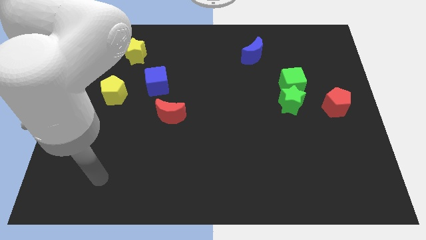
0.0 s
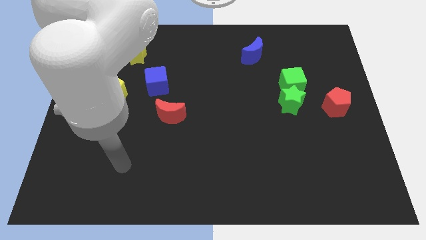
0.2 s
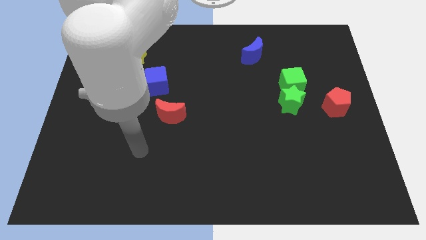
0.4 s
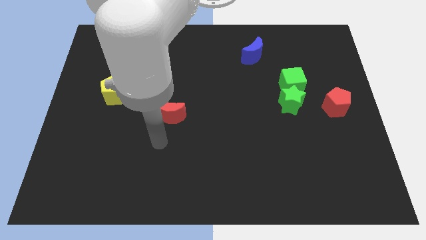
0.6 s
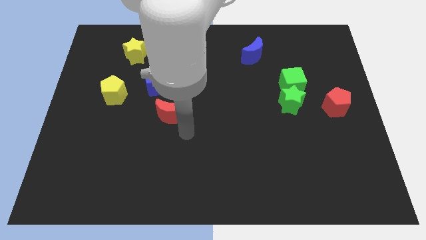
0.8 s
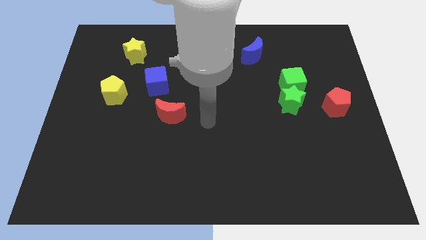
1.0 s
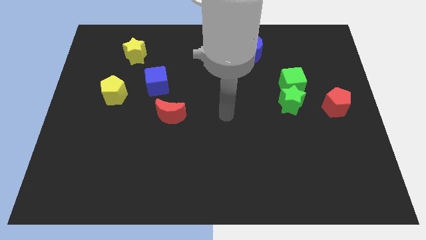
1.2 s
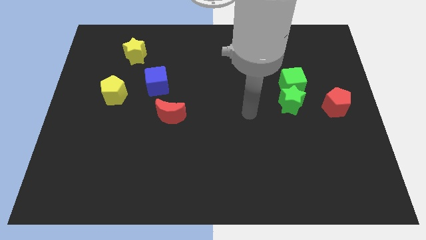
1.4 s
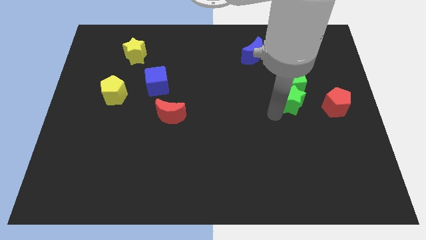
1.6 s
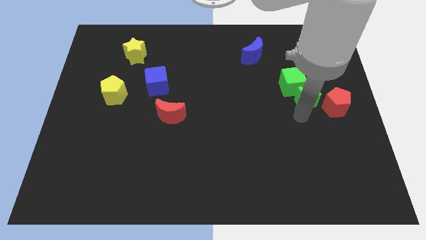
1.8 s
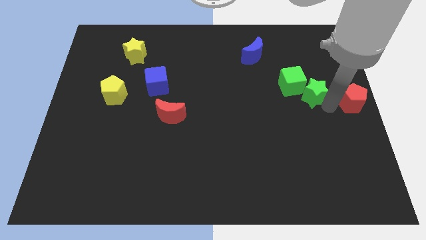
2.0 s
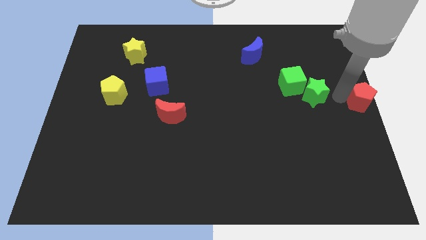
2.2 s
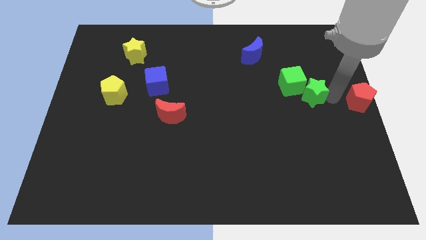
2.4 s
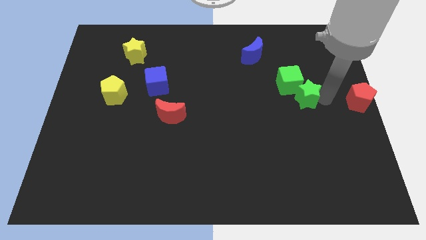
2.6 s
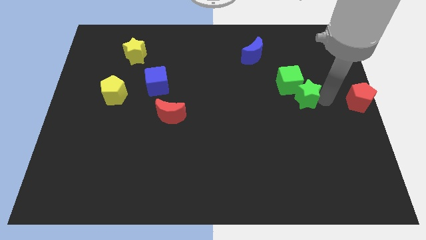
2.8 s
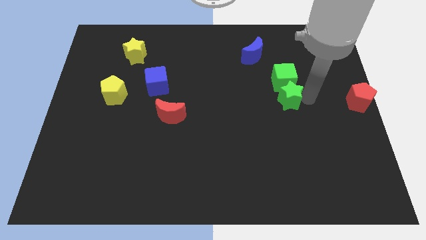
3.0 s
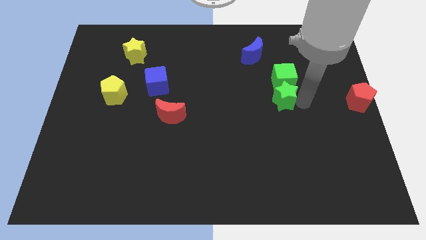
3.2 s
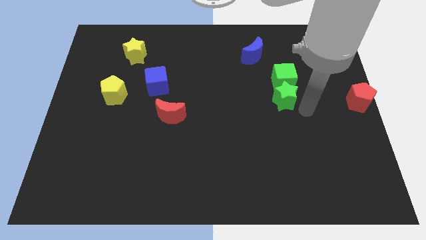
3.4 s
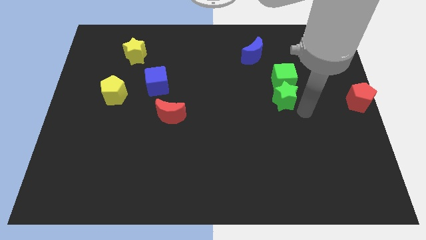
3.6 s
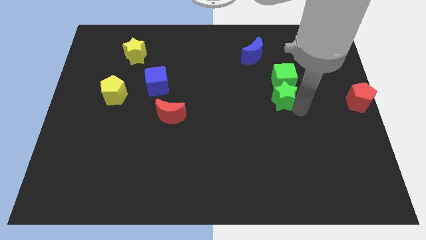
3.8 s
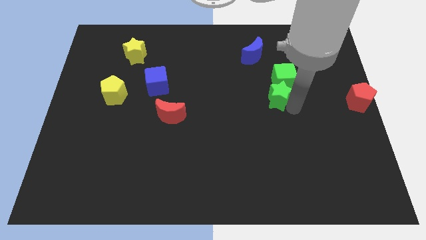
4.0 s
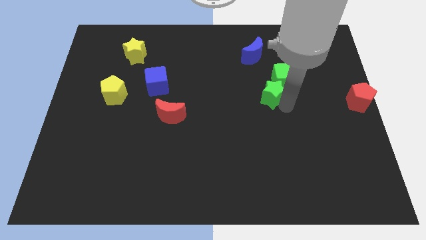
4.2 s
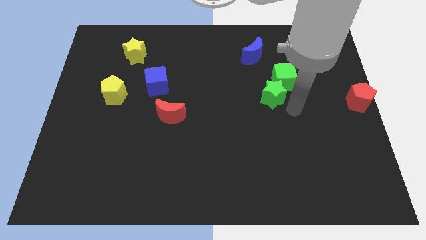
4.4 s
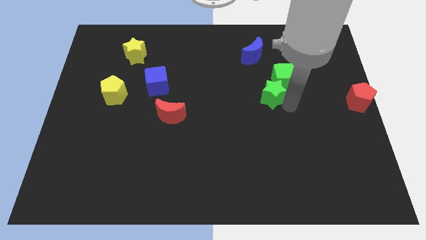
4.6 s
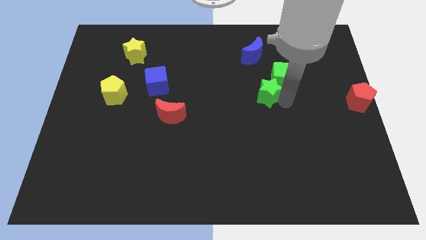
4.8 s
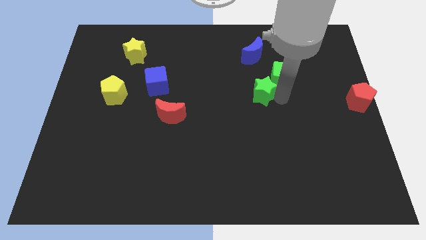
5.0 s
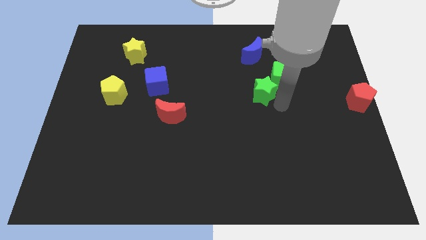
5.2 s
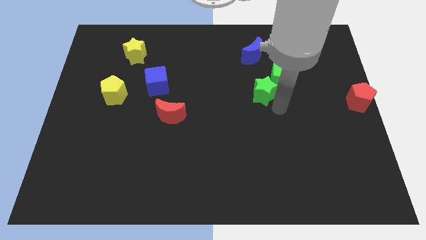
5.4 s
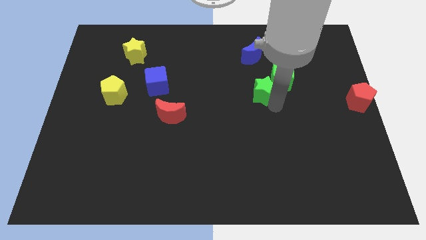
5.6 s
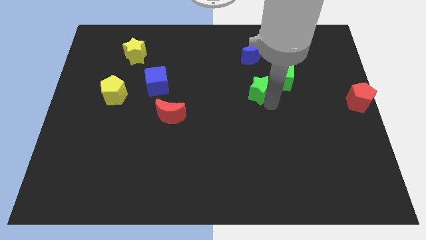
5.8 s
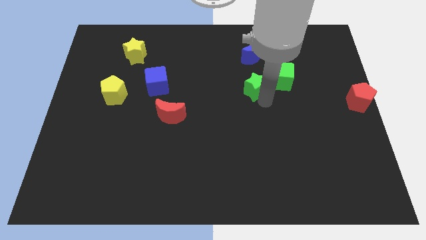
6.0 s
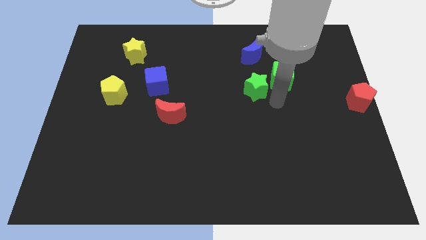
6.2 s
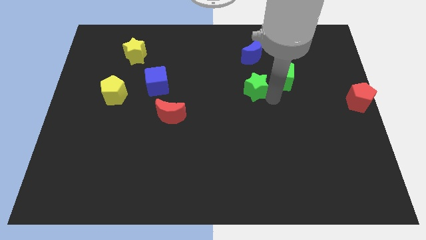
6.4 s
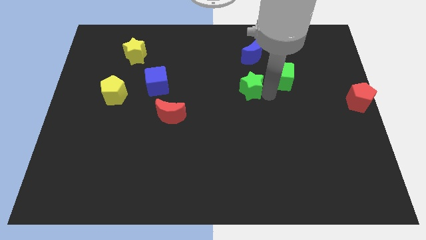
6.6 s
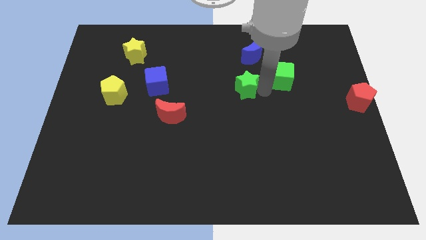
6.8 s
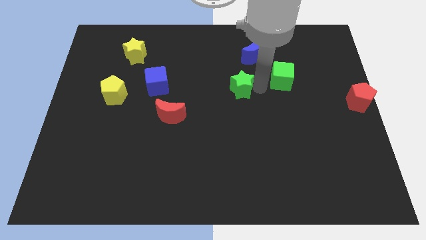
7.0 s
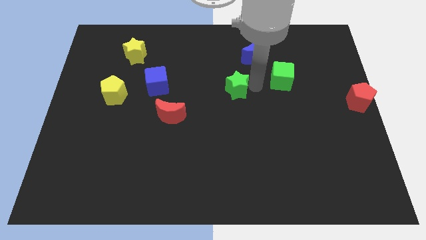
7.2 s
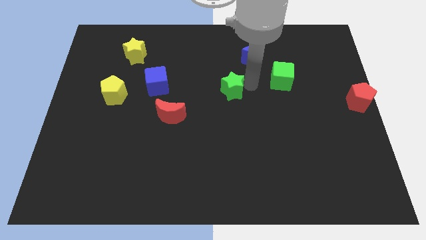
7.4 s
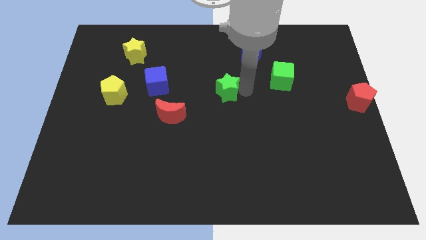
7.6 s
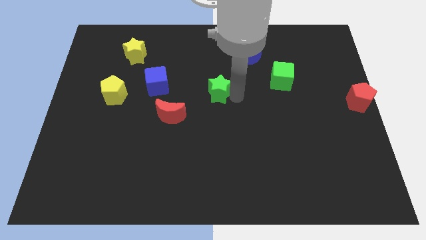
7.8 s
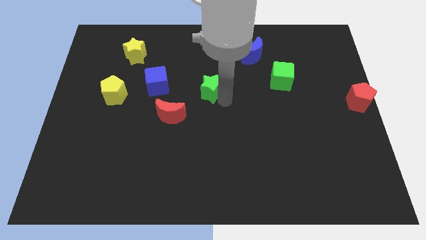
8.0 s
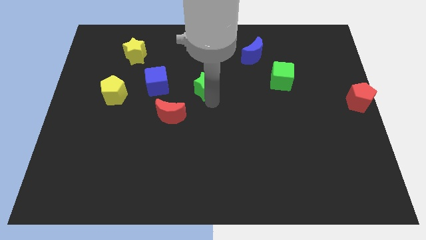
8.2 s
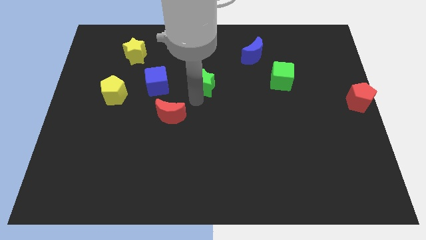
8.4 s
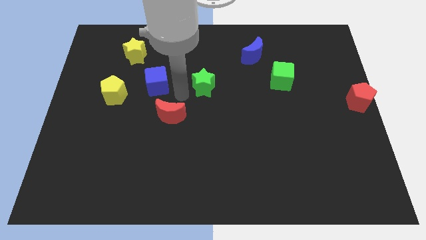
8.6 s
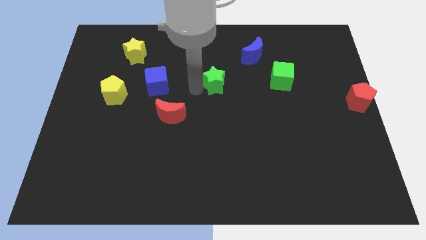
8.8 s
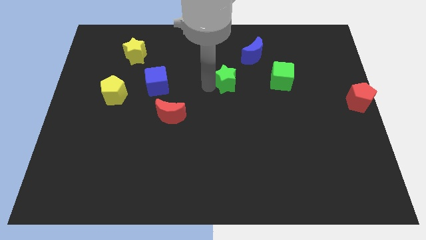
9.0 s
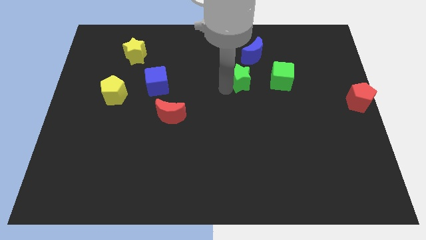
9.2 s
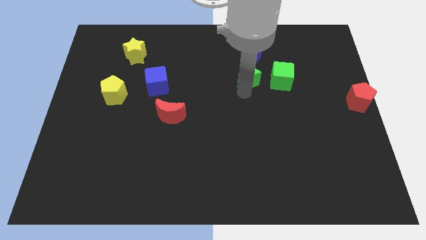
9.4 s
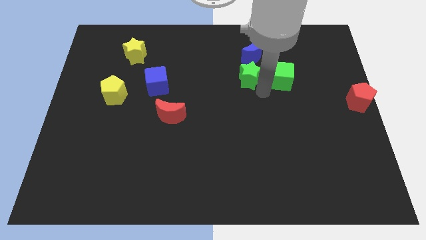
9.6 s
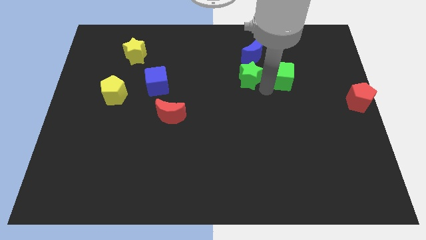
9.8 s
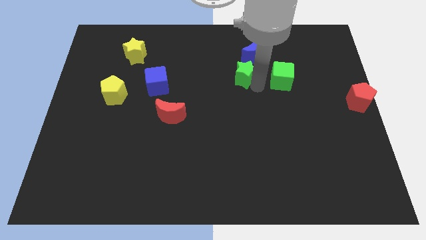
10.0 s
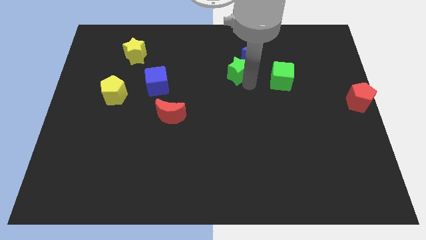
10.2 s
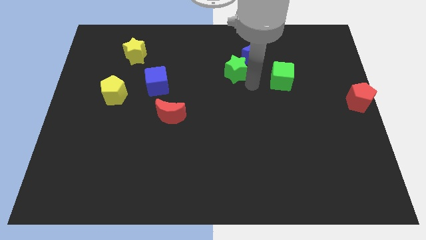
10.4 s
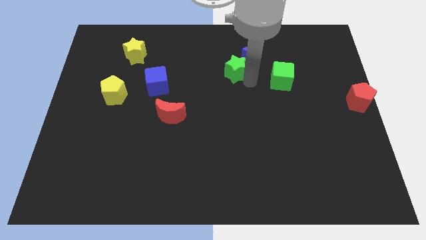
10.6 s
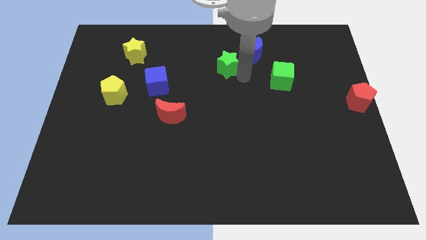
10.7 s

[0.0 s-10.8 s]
push the green star to the left of the blue moon

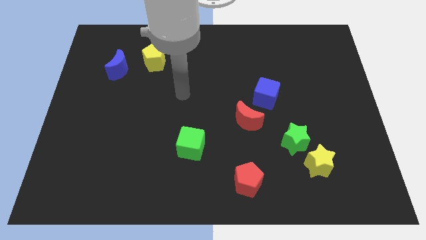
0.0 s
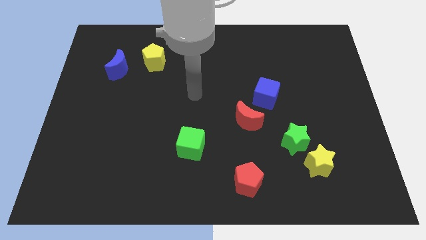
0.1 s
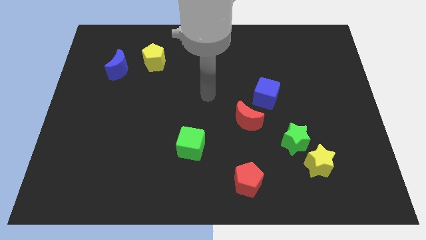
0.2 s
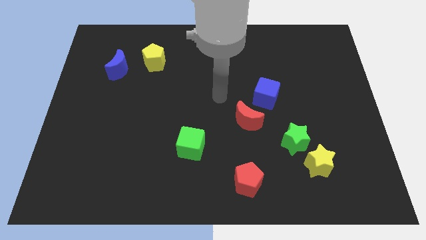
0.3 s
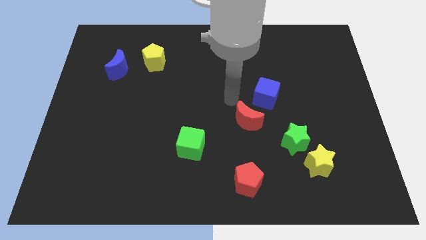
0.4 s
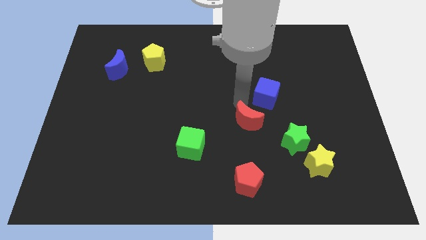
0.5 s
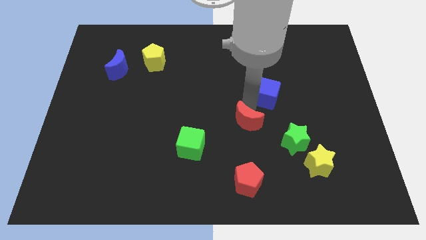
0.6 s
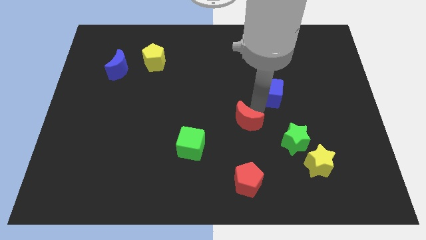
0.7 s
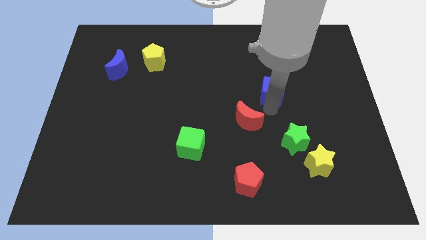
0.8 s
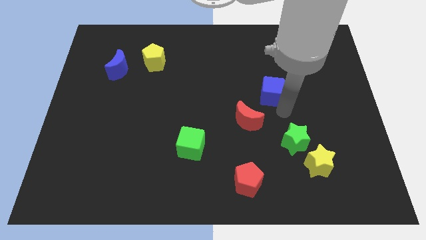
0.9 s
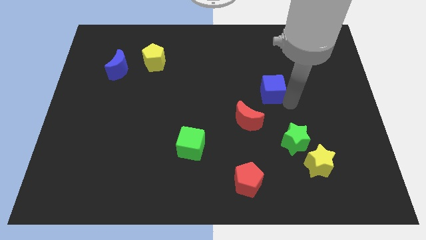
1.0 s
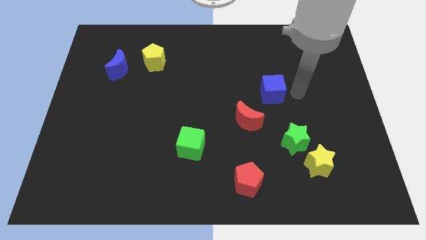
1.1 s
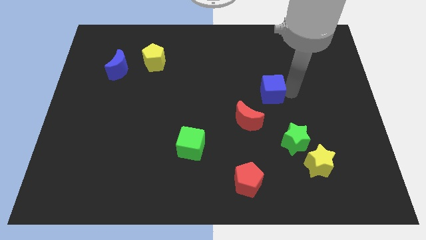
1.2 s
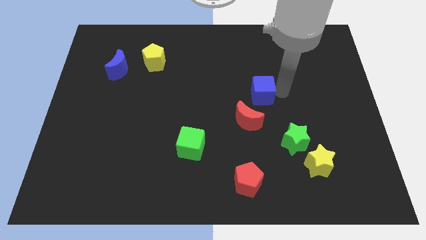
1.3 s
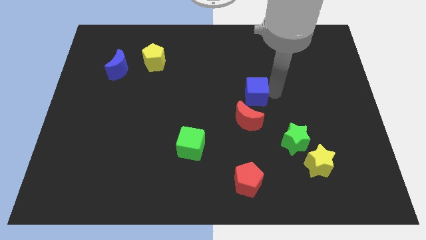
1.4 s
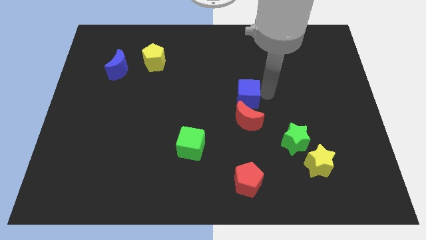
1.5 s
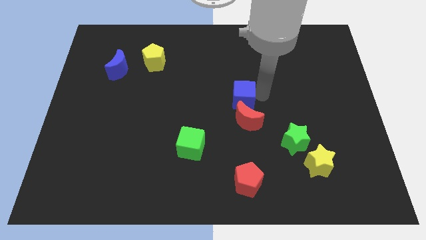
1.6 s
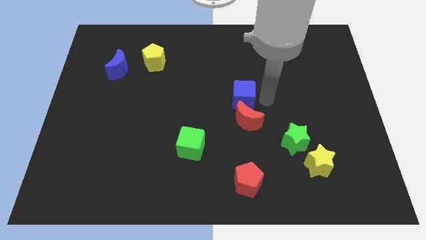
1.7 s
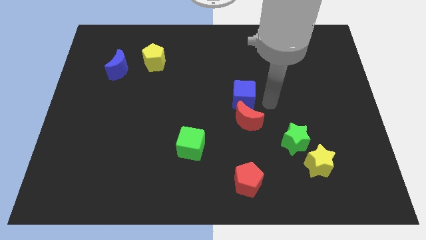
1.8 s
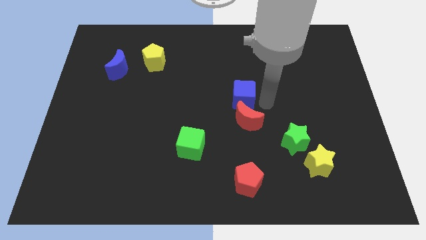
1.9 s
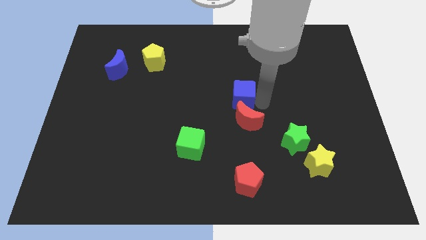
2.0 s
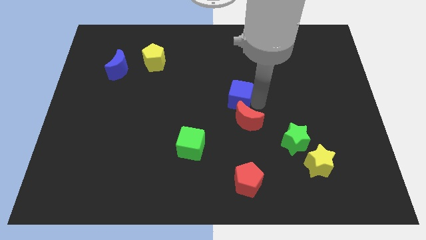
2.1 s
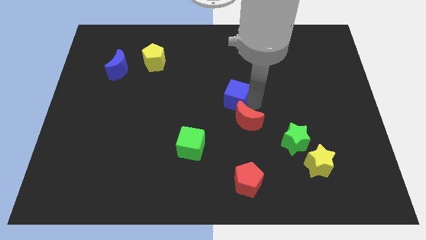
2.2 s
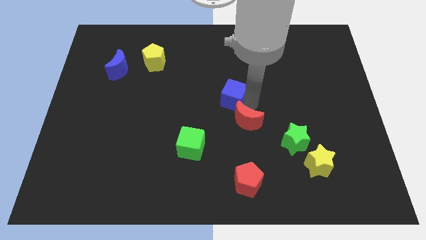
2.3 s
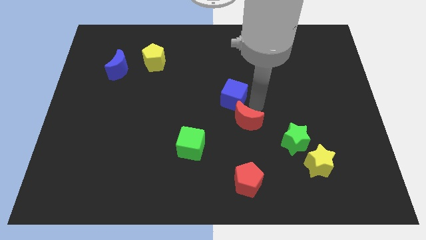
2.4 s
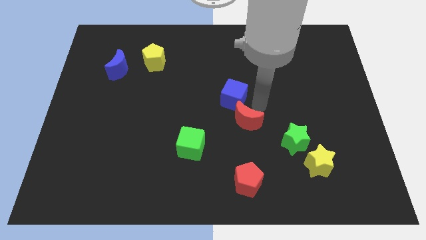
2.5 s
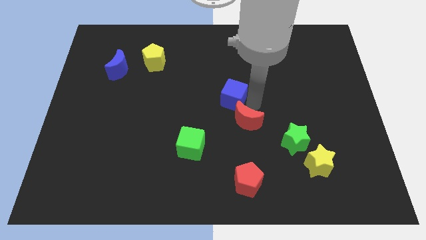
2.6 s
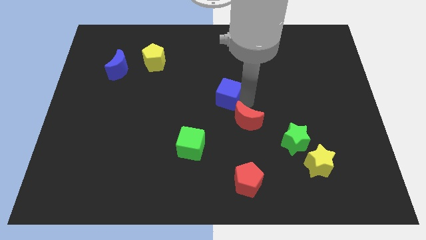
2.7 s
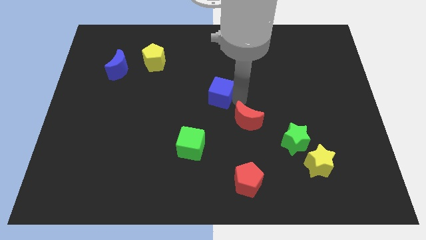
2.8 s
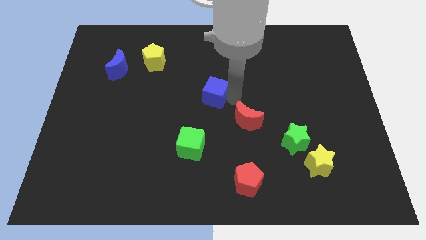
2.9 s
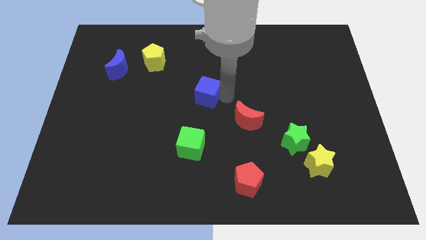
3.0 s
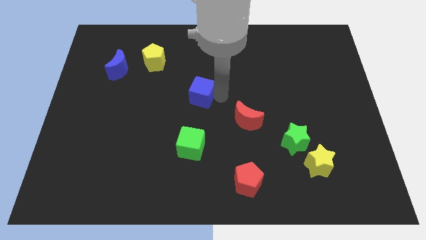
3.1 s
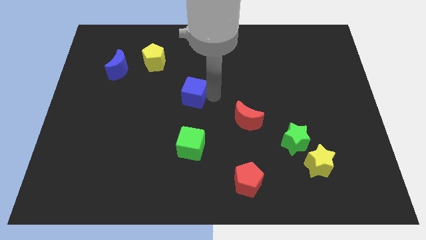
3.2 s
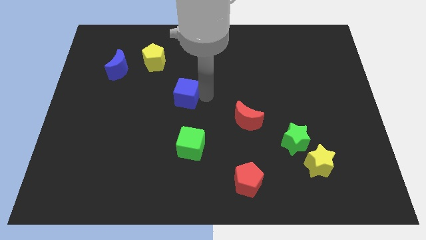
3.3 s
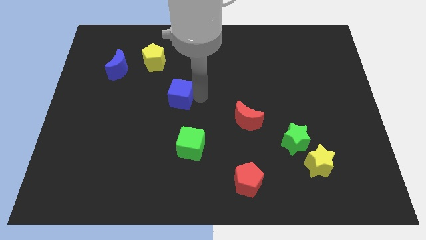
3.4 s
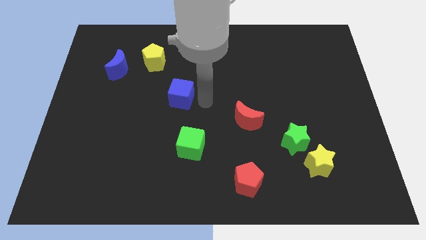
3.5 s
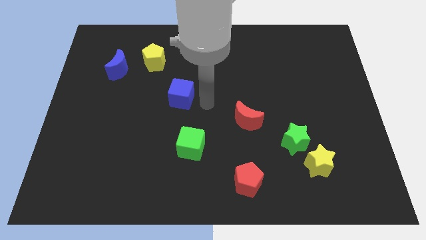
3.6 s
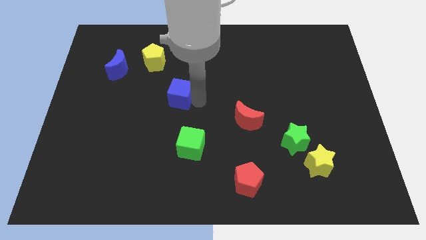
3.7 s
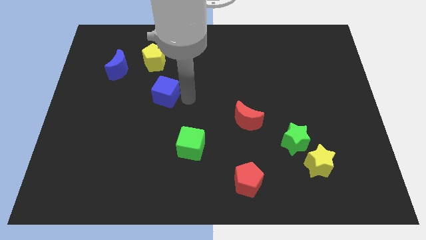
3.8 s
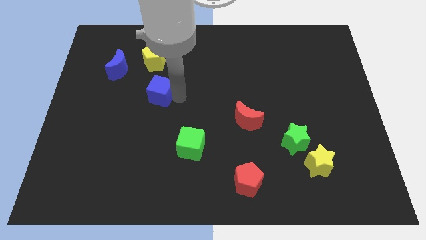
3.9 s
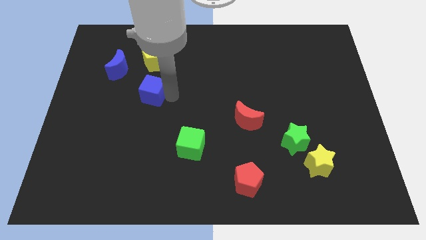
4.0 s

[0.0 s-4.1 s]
move the blue cube diagonally down and to the right of the blue moon
